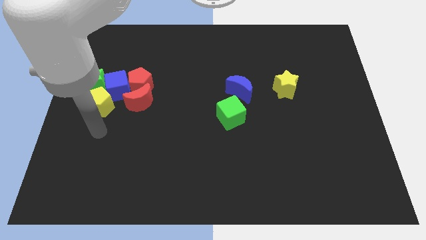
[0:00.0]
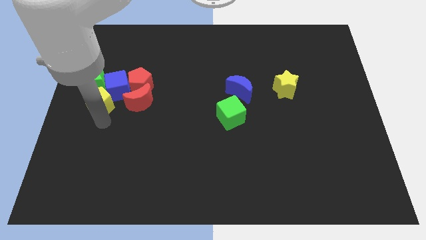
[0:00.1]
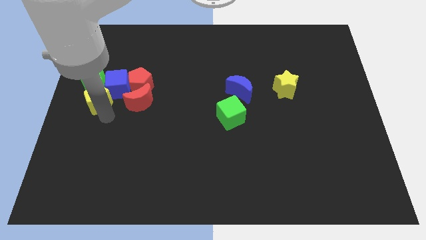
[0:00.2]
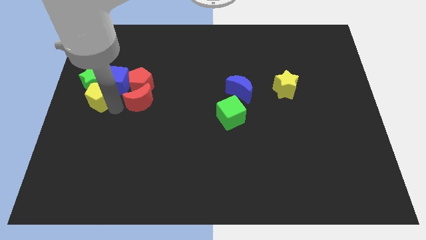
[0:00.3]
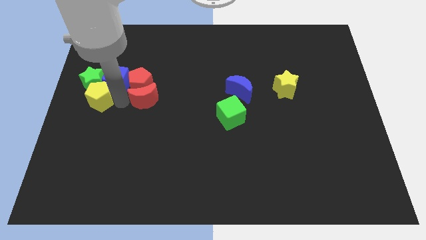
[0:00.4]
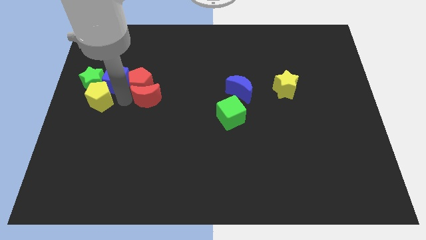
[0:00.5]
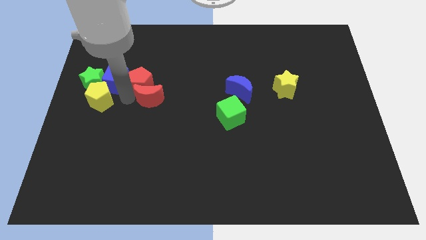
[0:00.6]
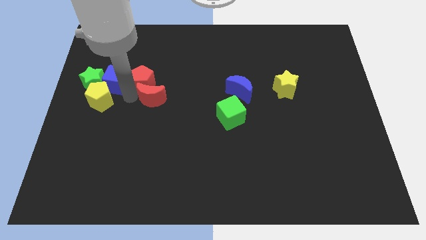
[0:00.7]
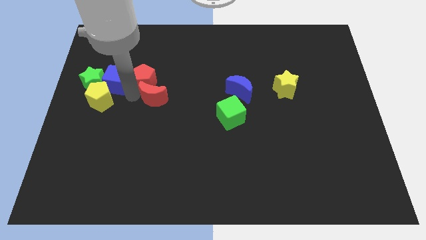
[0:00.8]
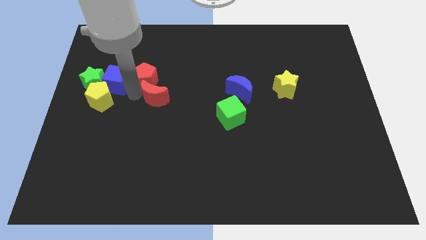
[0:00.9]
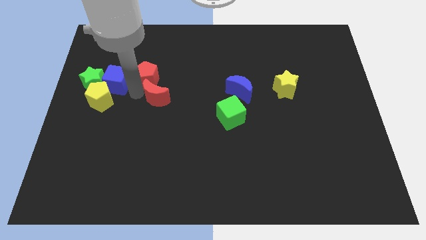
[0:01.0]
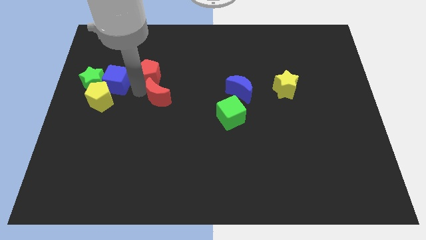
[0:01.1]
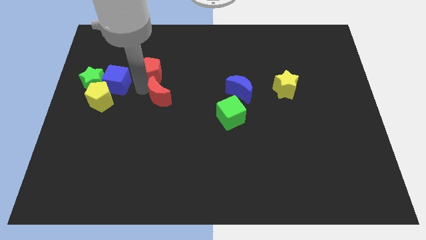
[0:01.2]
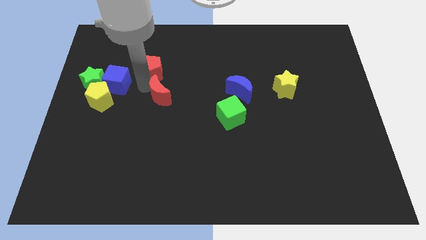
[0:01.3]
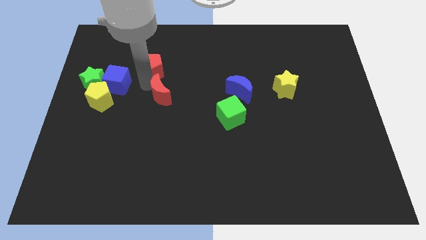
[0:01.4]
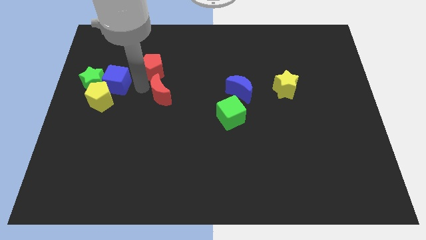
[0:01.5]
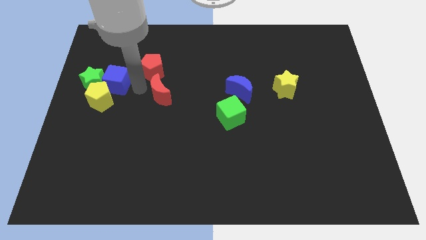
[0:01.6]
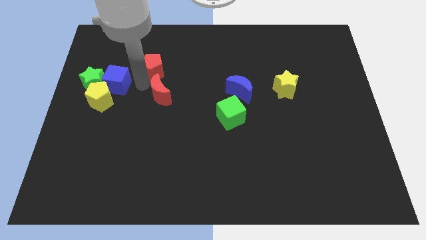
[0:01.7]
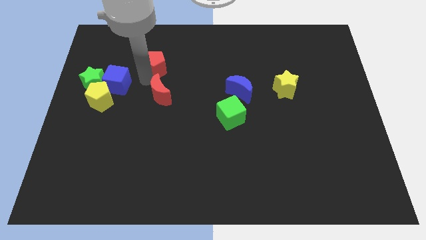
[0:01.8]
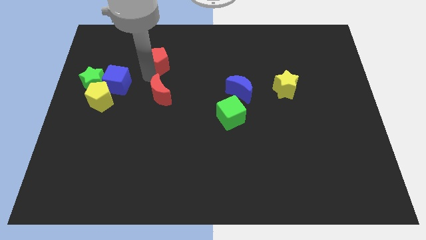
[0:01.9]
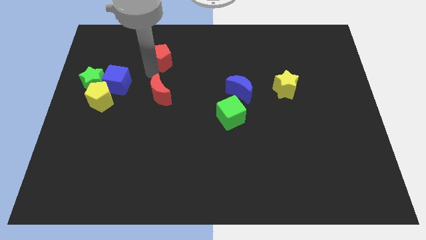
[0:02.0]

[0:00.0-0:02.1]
move the red pentagon away from the blue cube and red moon

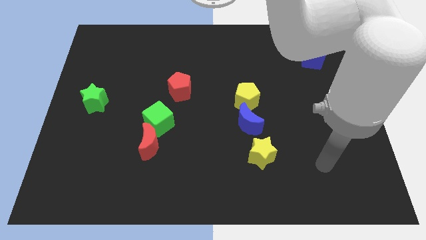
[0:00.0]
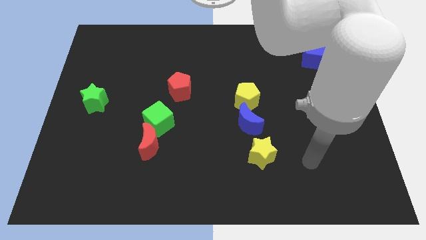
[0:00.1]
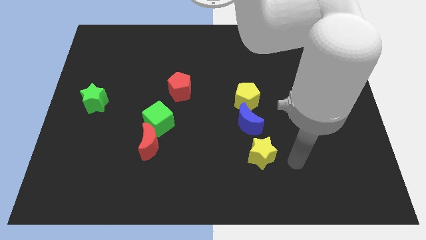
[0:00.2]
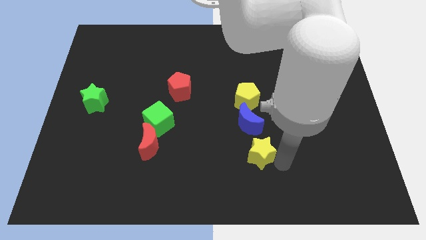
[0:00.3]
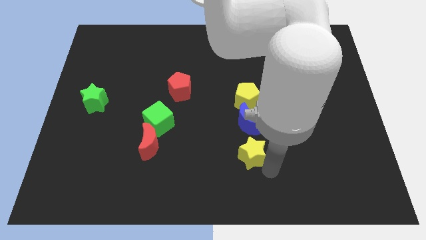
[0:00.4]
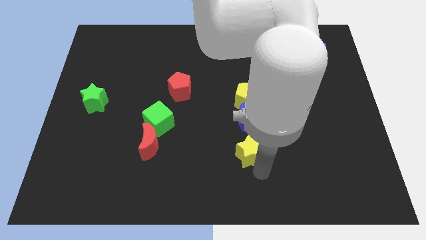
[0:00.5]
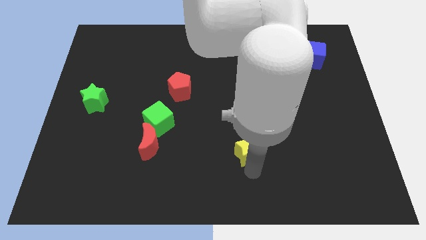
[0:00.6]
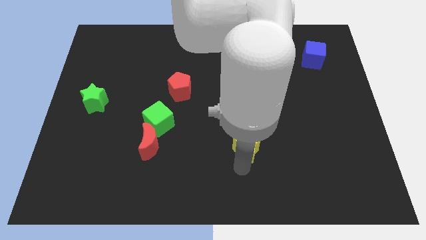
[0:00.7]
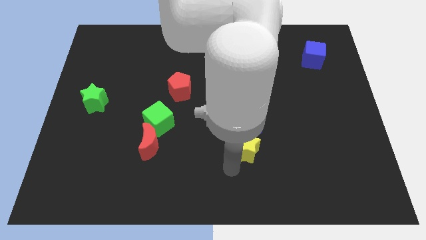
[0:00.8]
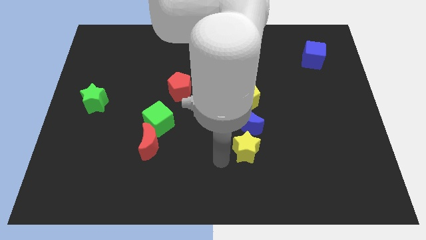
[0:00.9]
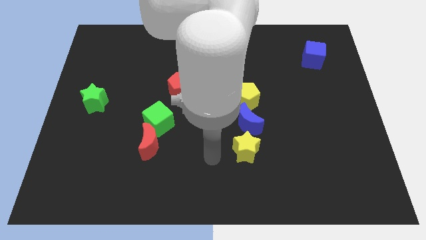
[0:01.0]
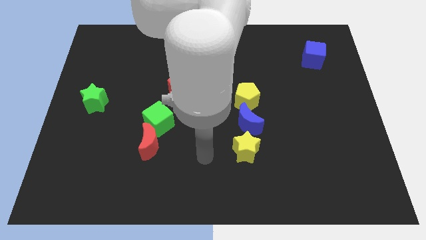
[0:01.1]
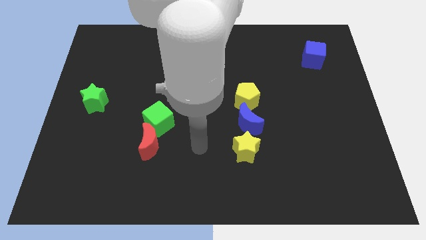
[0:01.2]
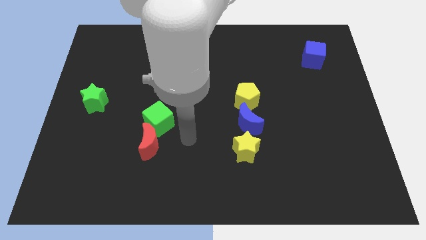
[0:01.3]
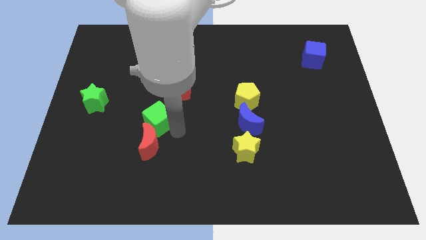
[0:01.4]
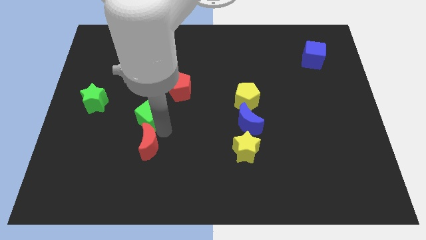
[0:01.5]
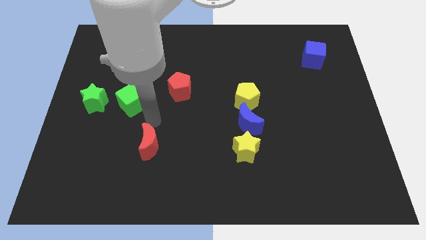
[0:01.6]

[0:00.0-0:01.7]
move the red moon away from the green cube

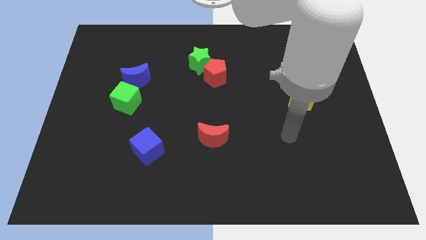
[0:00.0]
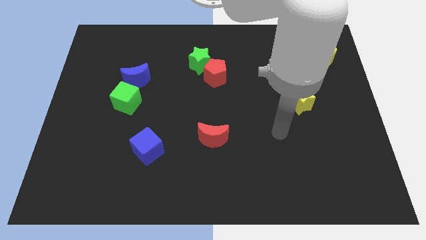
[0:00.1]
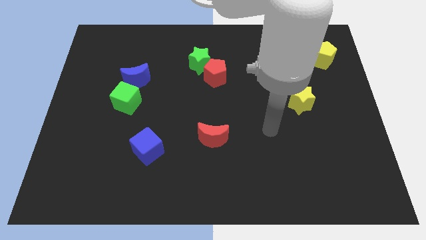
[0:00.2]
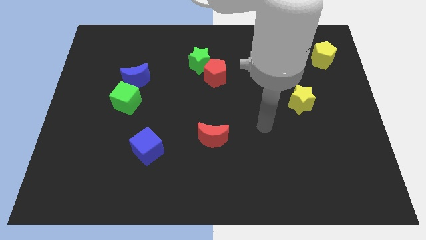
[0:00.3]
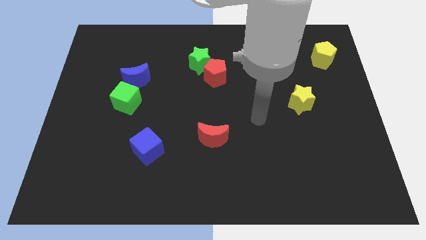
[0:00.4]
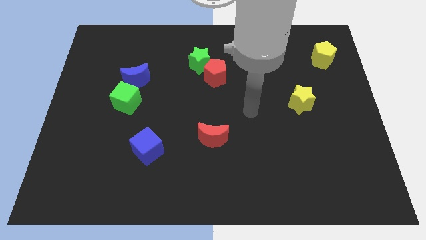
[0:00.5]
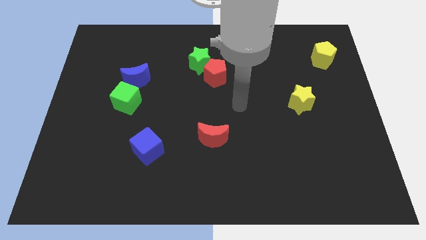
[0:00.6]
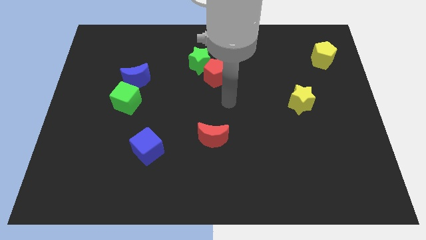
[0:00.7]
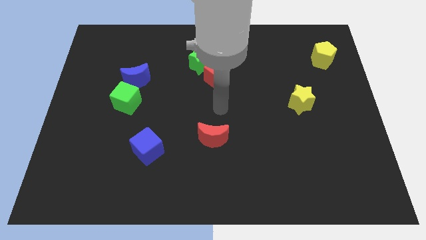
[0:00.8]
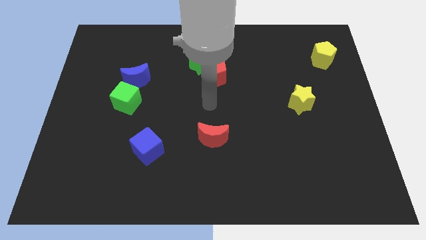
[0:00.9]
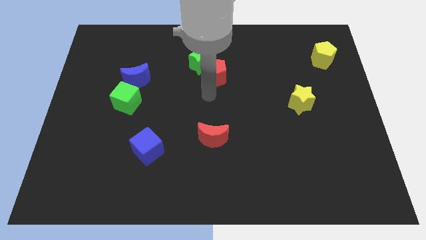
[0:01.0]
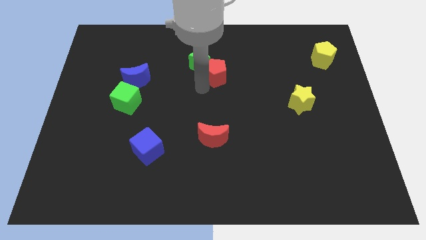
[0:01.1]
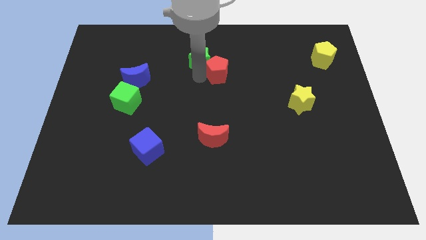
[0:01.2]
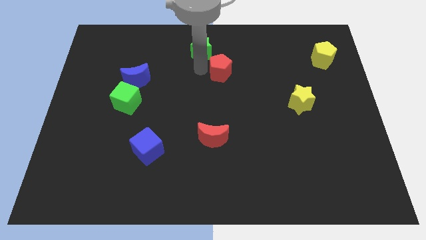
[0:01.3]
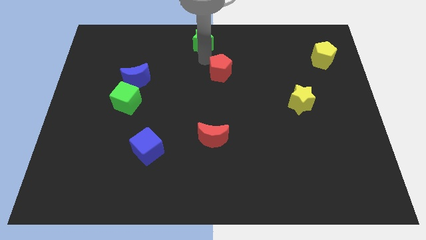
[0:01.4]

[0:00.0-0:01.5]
move the red pentagon away from the green star

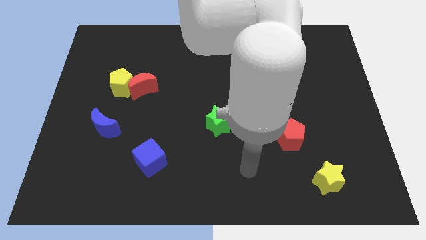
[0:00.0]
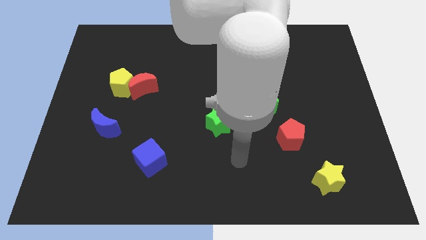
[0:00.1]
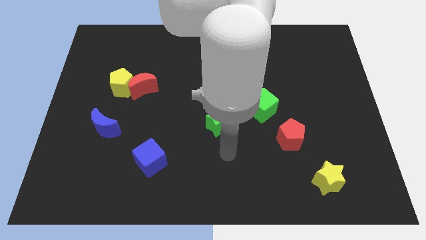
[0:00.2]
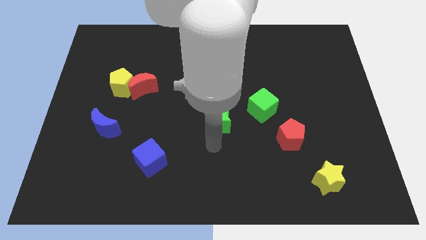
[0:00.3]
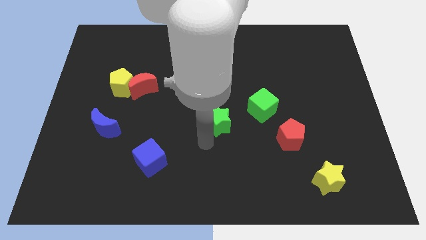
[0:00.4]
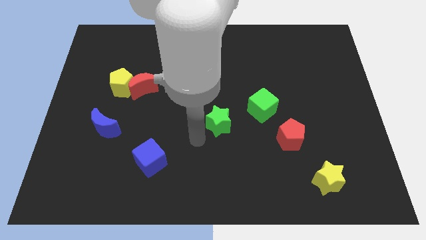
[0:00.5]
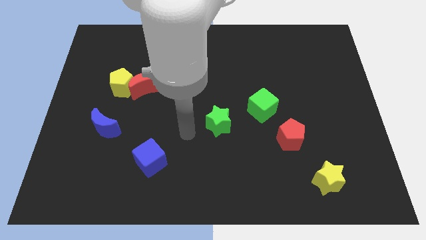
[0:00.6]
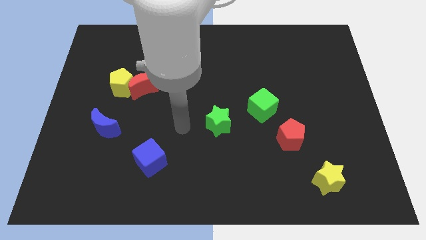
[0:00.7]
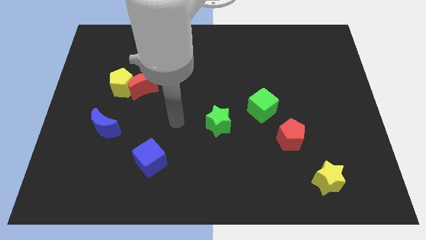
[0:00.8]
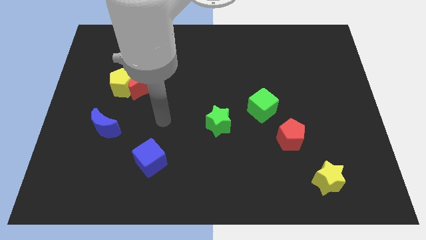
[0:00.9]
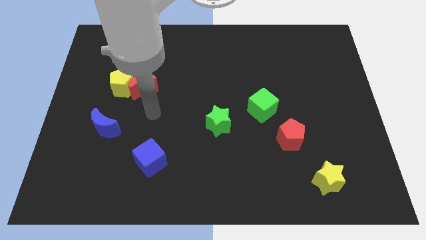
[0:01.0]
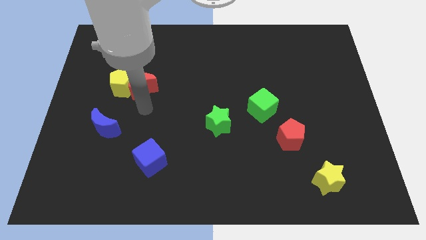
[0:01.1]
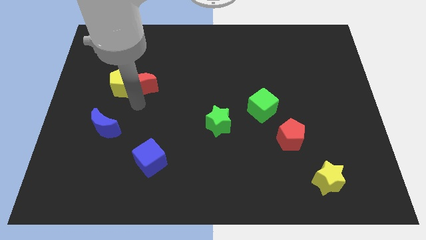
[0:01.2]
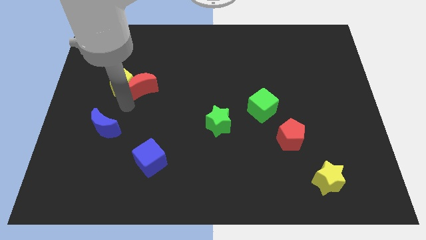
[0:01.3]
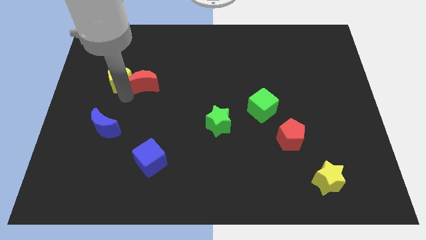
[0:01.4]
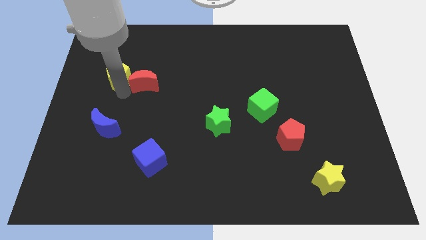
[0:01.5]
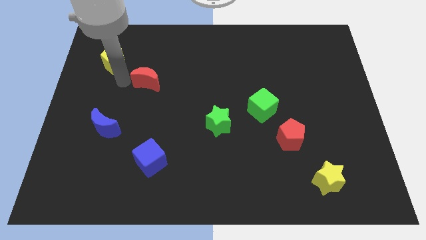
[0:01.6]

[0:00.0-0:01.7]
move the red moon away from the yellow pentagon

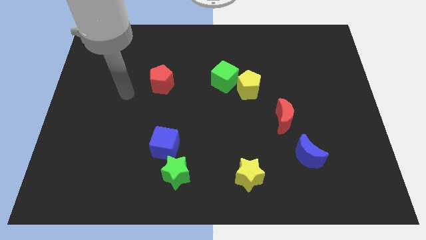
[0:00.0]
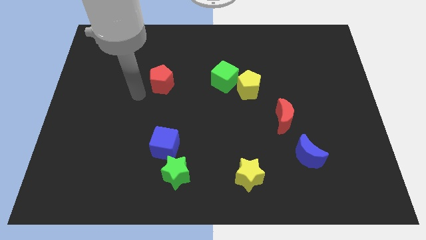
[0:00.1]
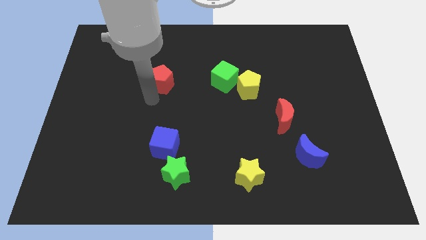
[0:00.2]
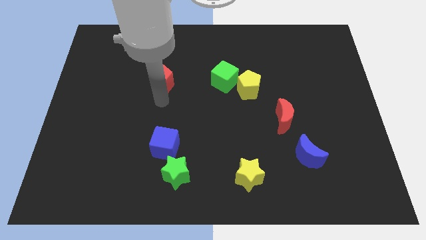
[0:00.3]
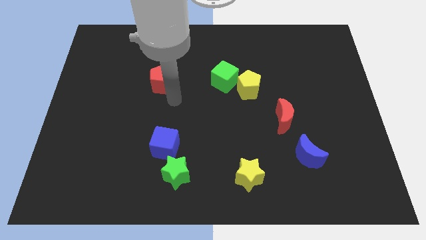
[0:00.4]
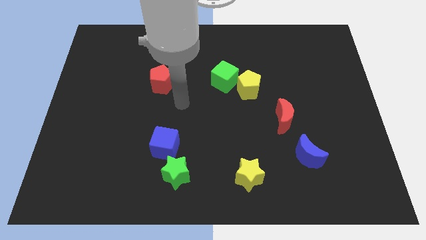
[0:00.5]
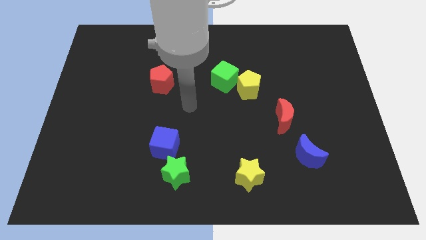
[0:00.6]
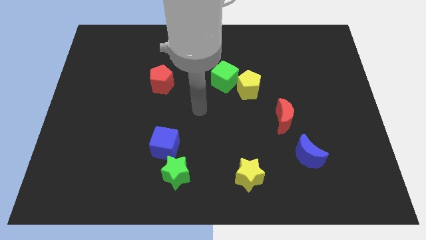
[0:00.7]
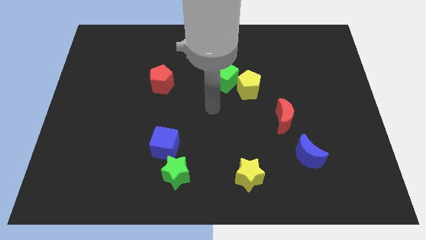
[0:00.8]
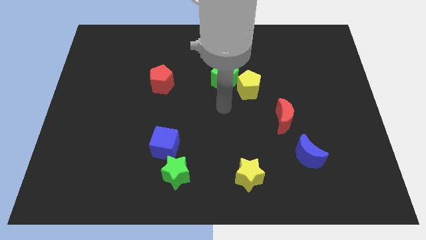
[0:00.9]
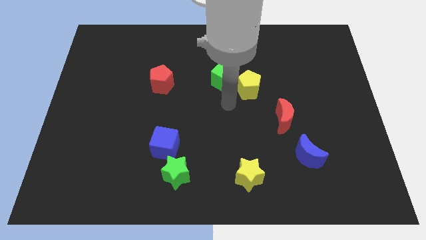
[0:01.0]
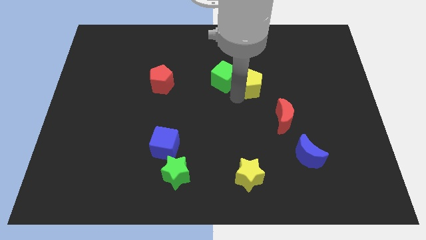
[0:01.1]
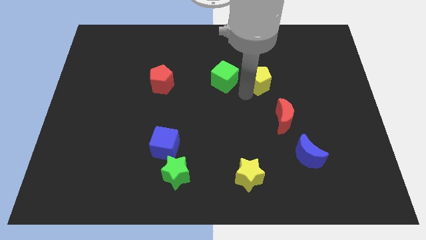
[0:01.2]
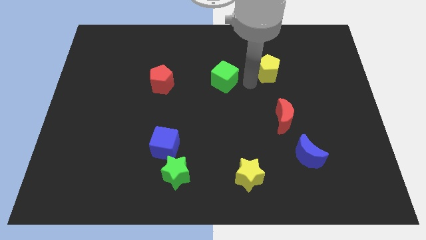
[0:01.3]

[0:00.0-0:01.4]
move the green cube away from the yellow pentagon

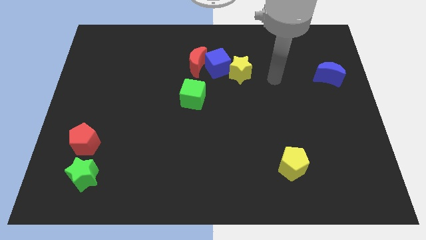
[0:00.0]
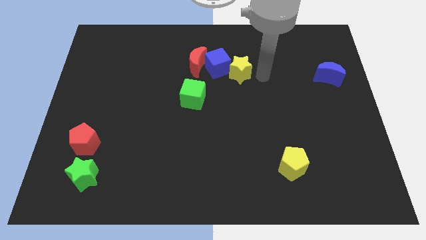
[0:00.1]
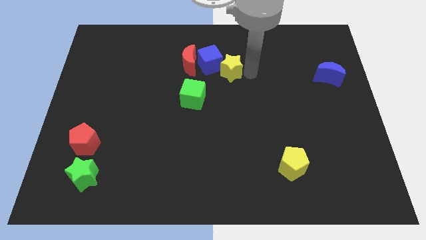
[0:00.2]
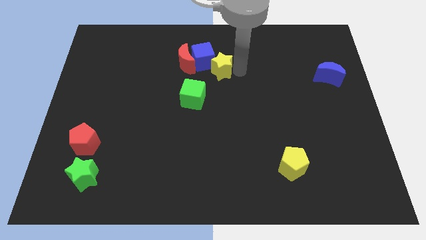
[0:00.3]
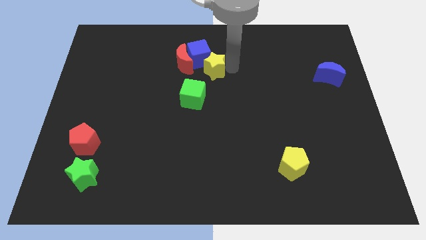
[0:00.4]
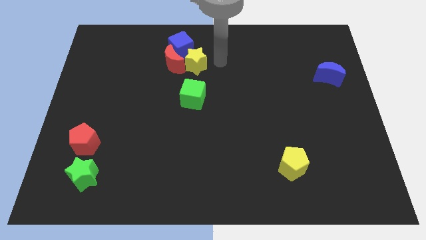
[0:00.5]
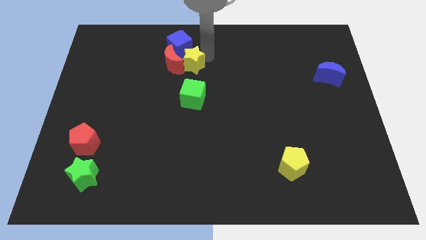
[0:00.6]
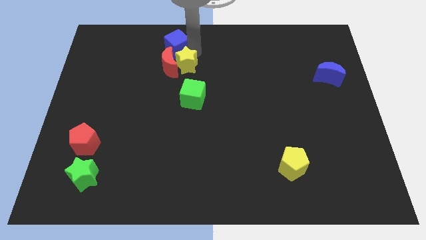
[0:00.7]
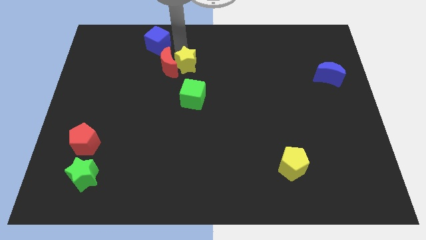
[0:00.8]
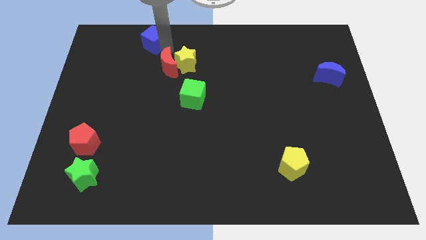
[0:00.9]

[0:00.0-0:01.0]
move the red moon away from the blue cube
